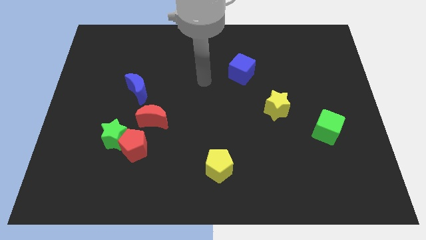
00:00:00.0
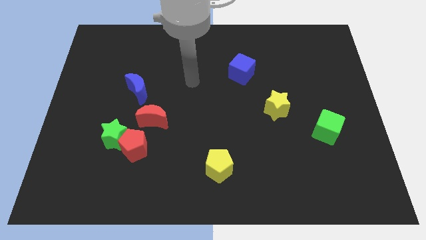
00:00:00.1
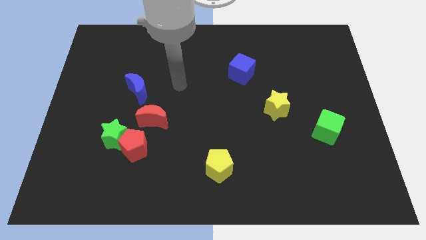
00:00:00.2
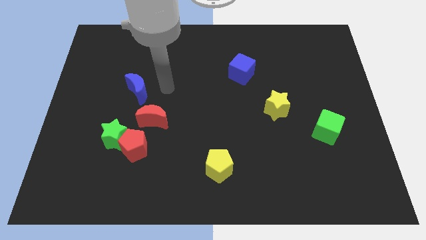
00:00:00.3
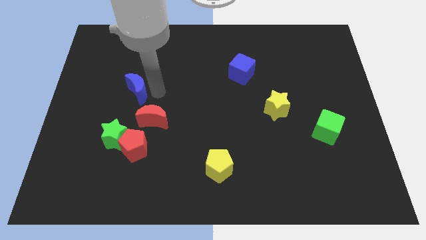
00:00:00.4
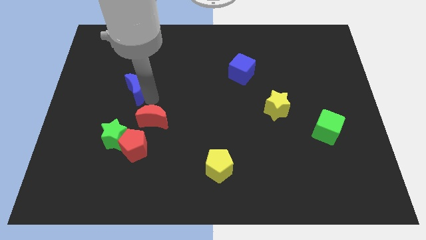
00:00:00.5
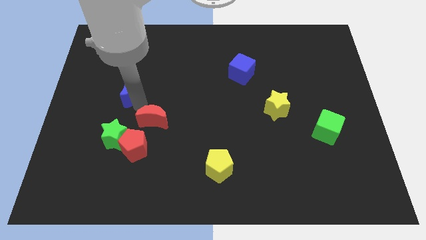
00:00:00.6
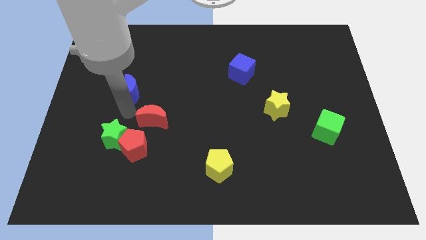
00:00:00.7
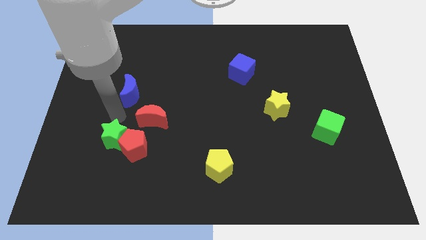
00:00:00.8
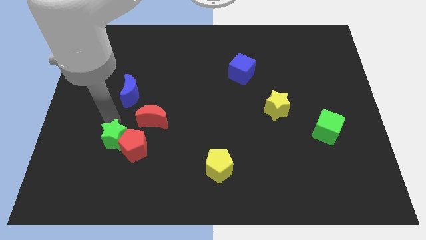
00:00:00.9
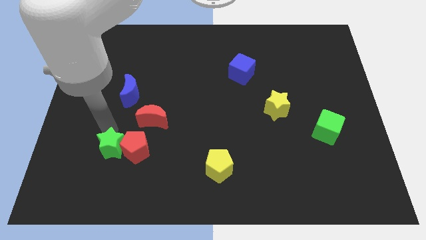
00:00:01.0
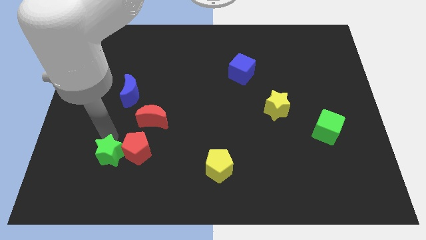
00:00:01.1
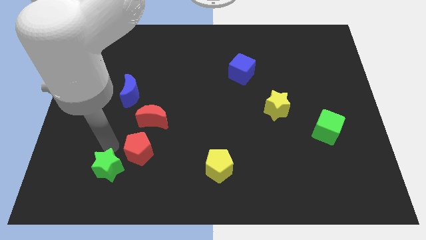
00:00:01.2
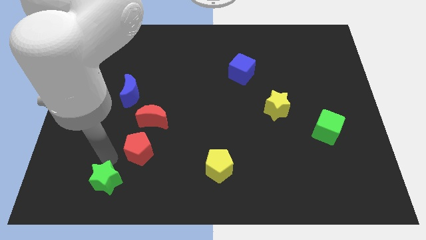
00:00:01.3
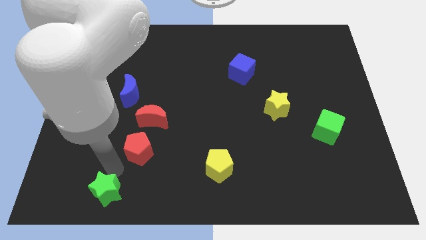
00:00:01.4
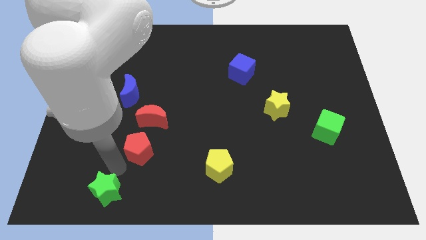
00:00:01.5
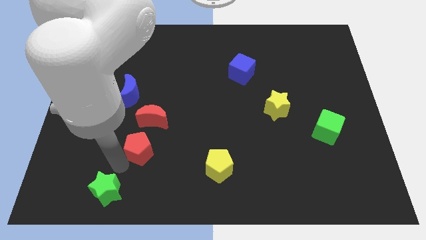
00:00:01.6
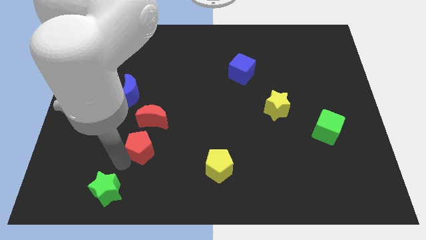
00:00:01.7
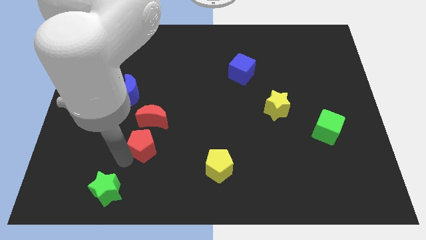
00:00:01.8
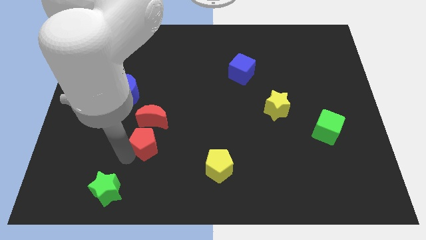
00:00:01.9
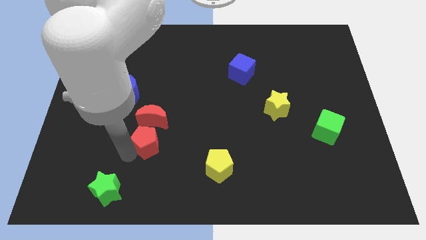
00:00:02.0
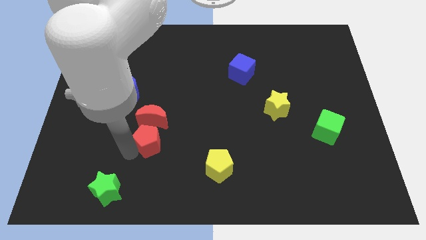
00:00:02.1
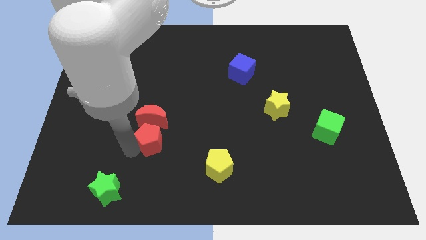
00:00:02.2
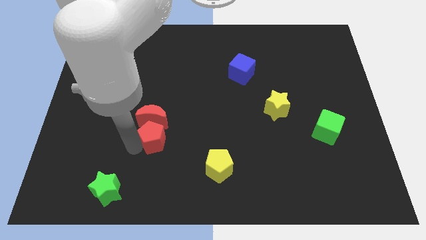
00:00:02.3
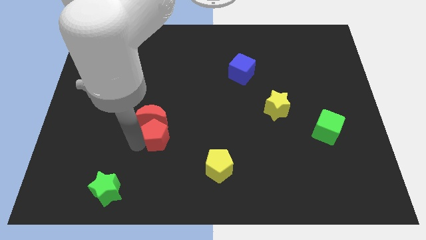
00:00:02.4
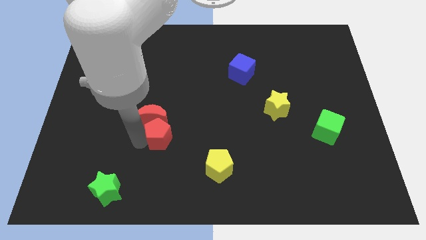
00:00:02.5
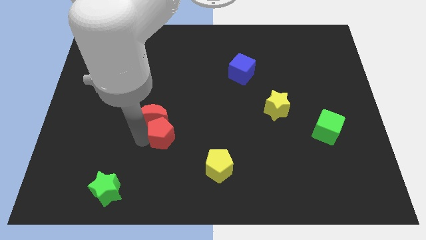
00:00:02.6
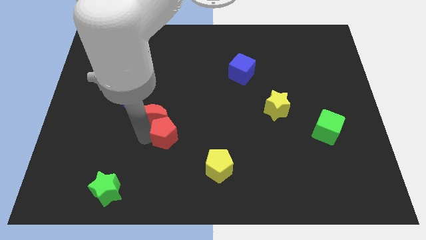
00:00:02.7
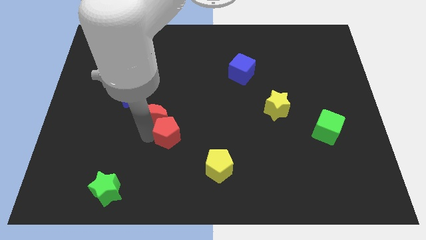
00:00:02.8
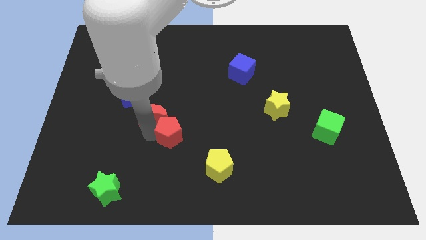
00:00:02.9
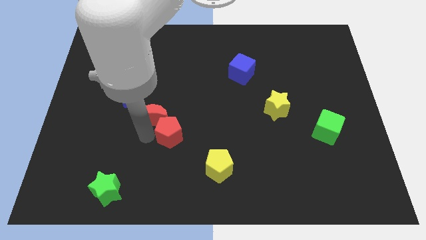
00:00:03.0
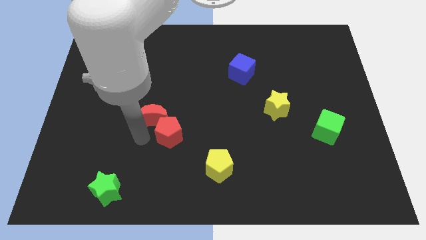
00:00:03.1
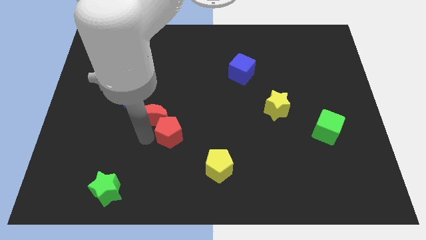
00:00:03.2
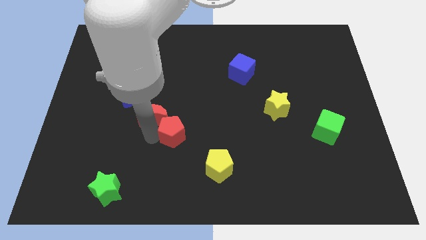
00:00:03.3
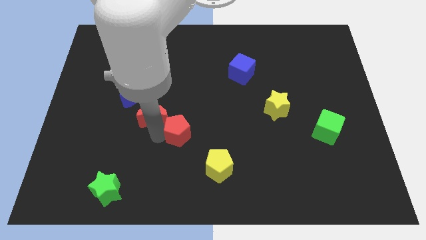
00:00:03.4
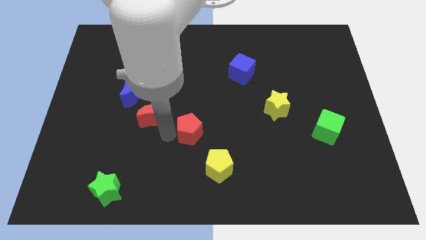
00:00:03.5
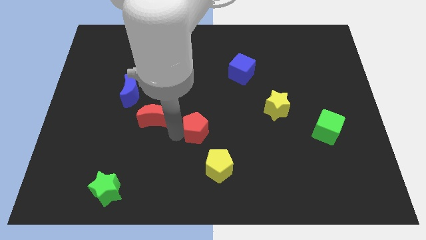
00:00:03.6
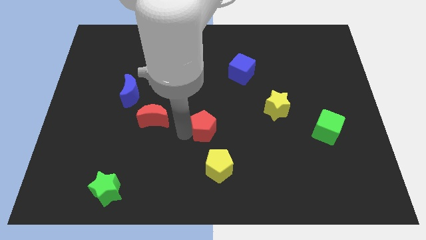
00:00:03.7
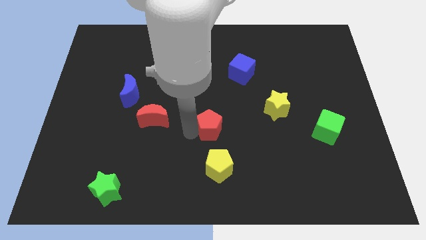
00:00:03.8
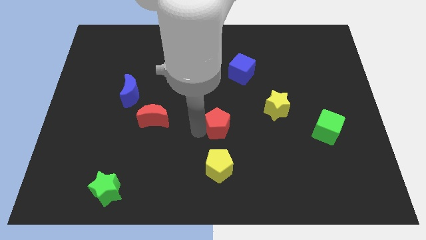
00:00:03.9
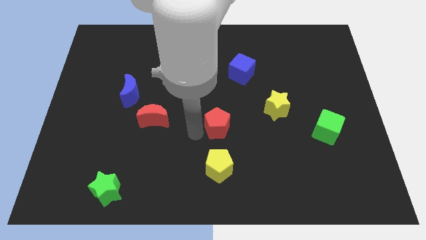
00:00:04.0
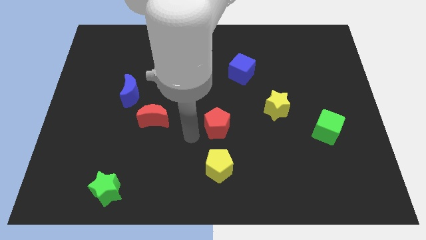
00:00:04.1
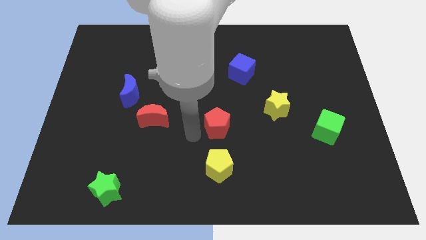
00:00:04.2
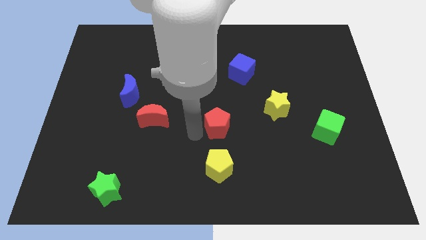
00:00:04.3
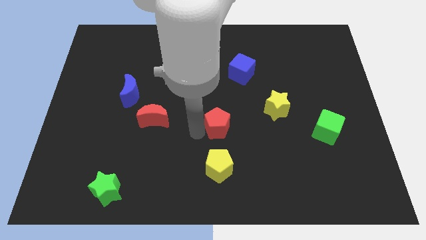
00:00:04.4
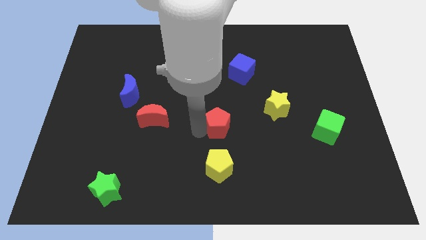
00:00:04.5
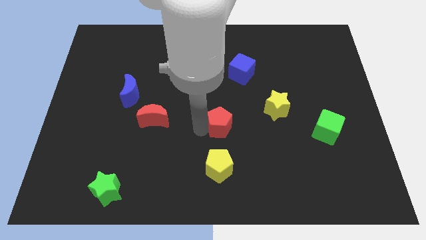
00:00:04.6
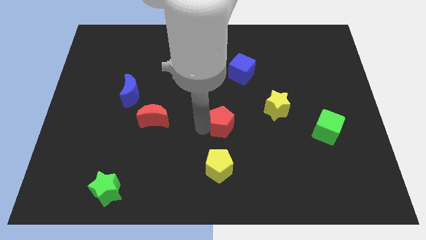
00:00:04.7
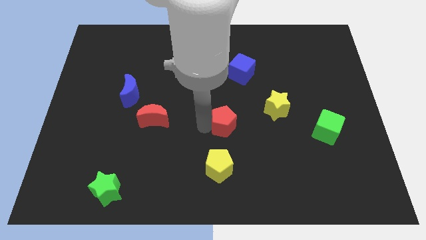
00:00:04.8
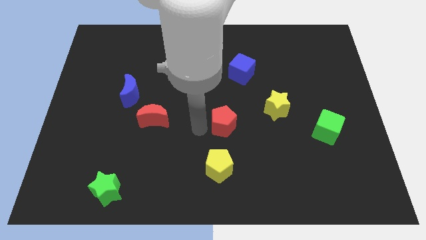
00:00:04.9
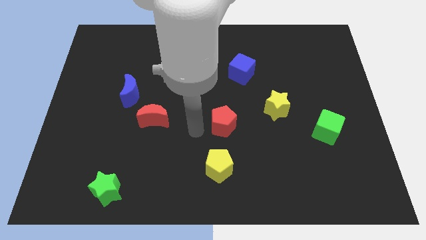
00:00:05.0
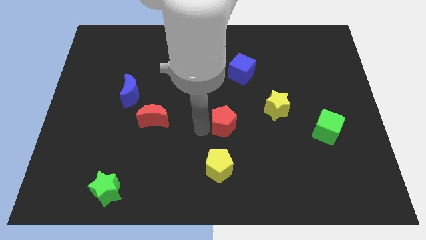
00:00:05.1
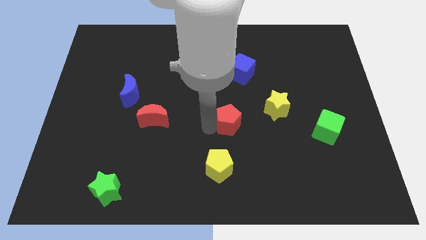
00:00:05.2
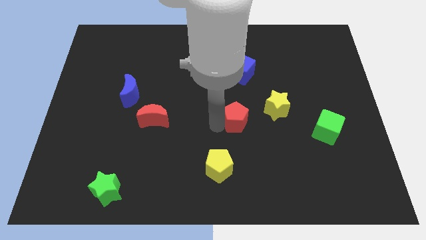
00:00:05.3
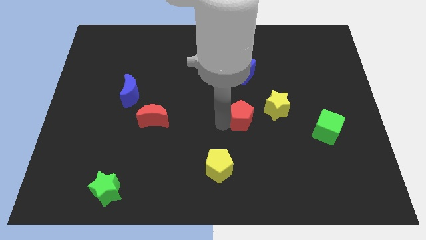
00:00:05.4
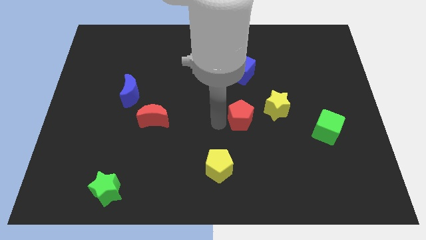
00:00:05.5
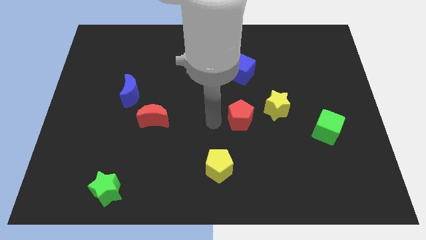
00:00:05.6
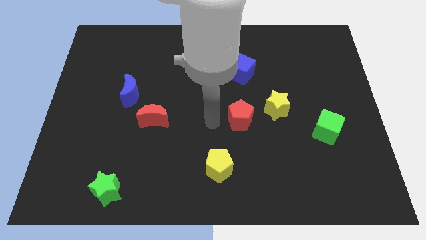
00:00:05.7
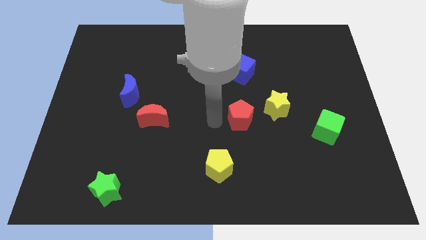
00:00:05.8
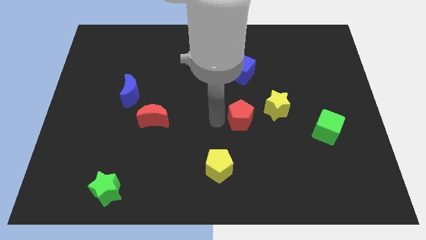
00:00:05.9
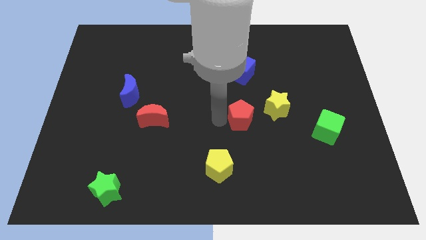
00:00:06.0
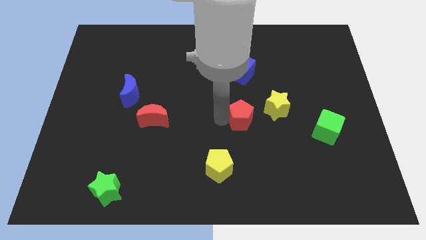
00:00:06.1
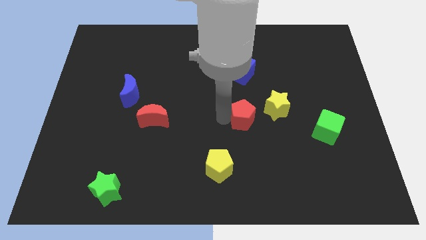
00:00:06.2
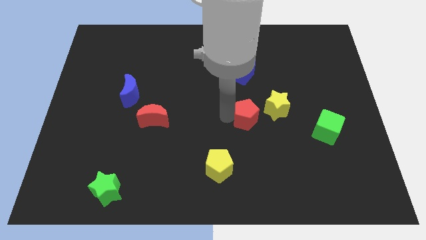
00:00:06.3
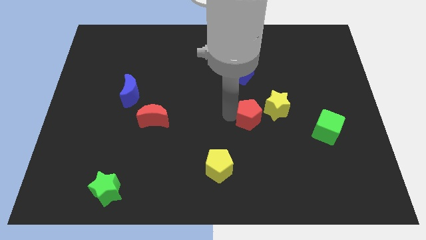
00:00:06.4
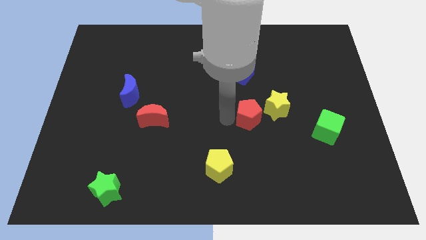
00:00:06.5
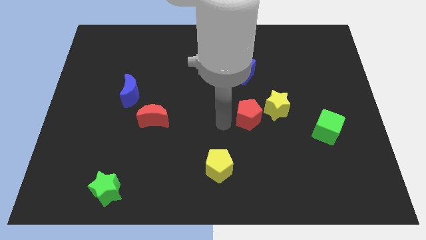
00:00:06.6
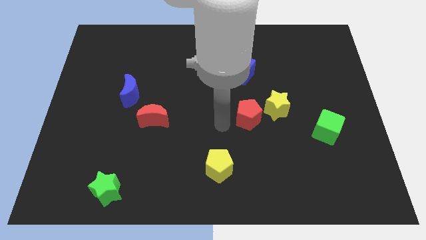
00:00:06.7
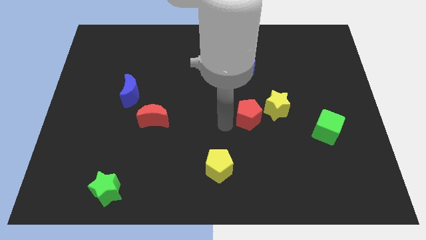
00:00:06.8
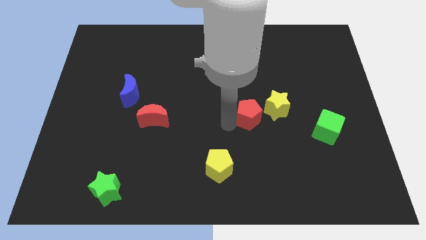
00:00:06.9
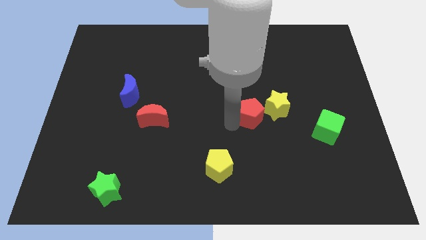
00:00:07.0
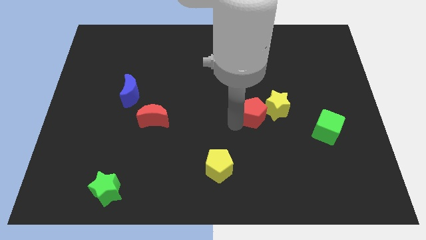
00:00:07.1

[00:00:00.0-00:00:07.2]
slide the red pentagon next to the yellow star

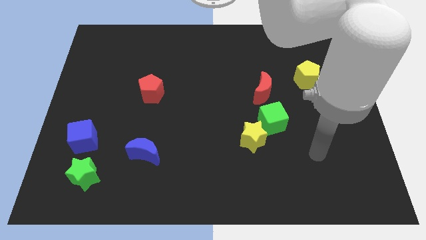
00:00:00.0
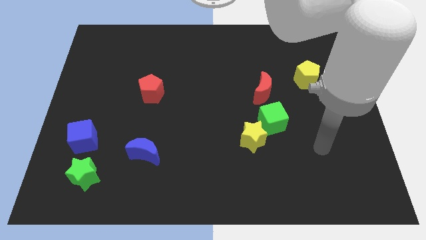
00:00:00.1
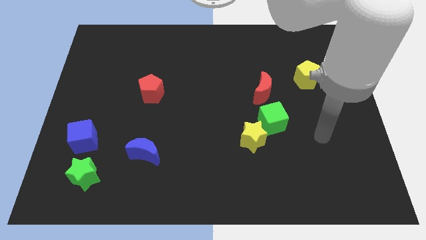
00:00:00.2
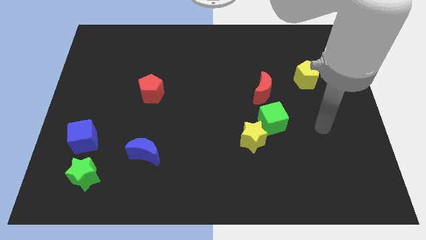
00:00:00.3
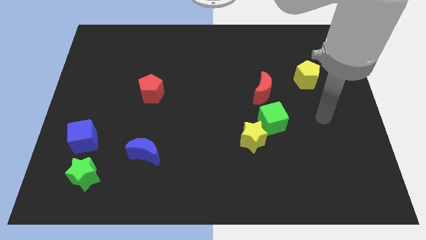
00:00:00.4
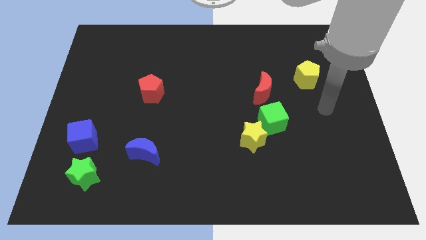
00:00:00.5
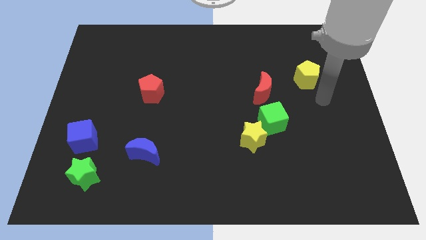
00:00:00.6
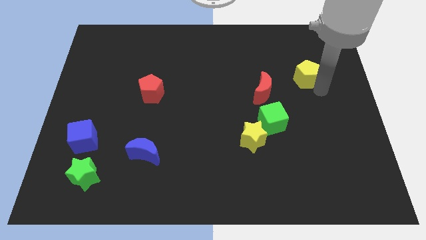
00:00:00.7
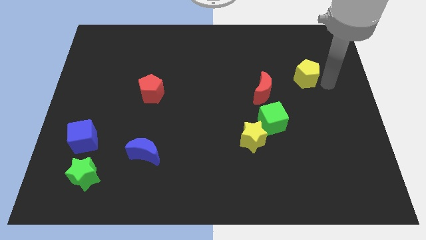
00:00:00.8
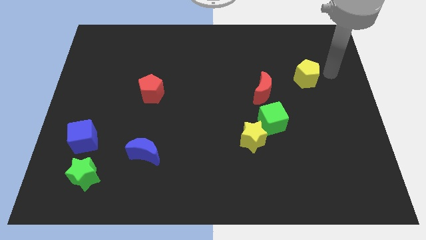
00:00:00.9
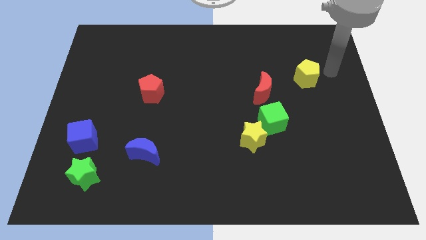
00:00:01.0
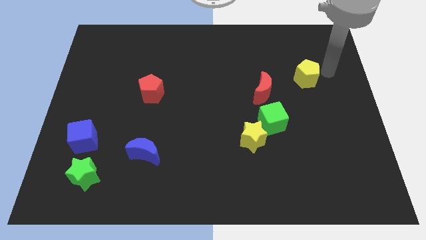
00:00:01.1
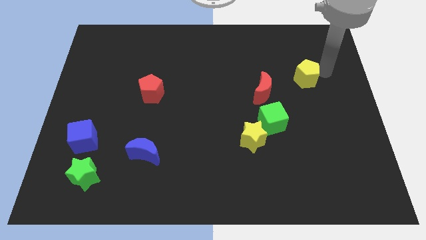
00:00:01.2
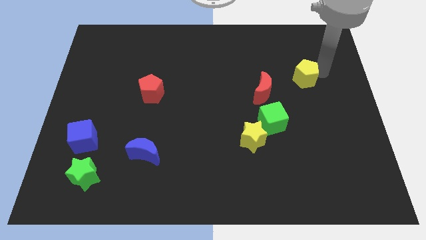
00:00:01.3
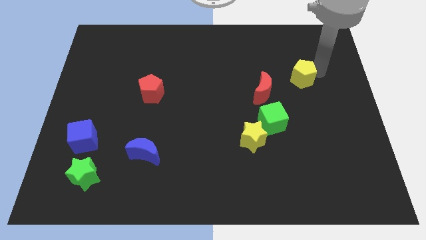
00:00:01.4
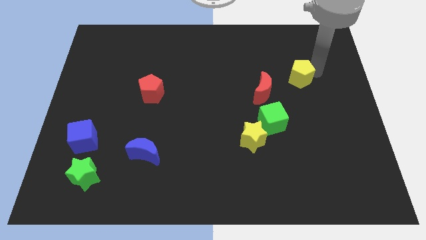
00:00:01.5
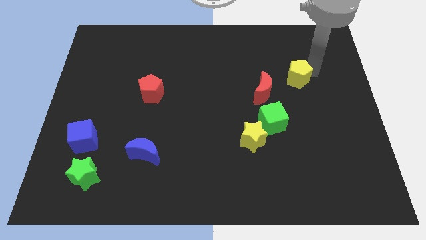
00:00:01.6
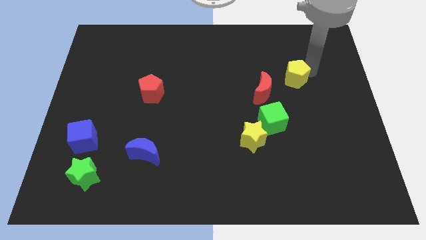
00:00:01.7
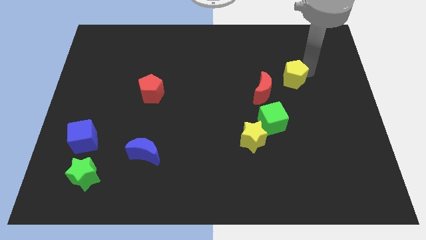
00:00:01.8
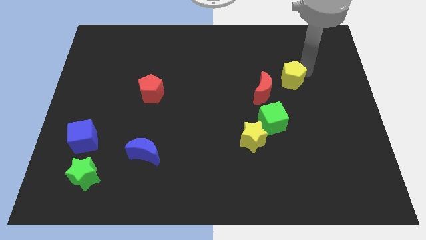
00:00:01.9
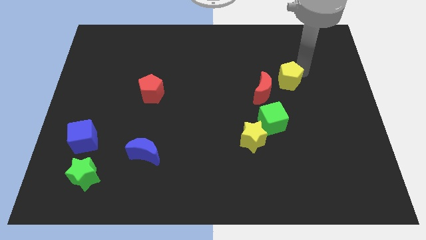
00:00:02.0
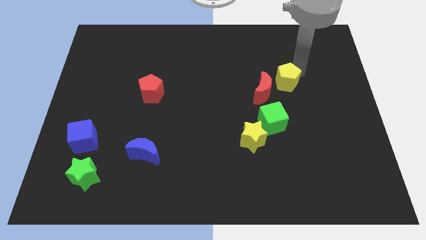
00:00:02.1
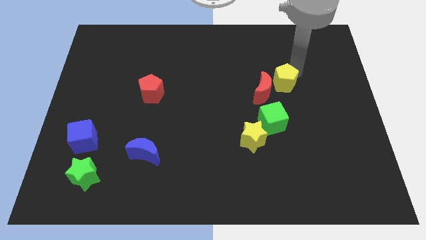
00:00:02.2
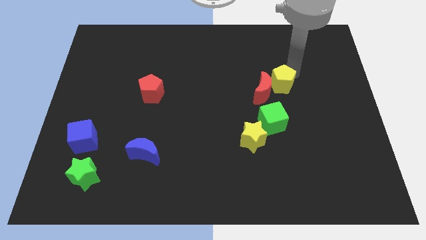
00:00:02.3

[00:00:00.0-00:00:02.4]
push the yellow pentagon next to the red moon
